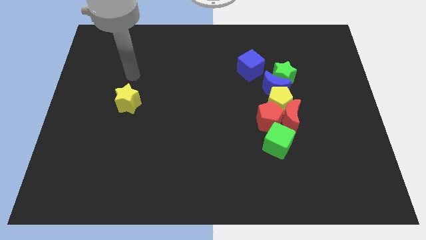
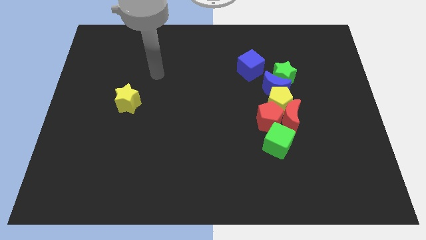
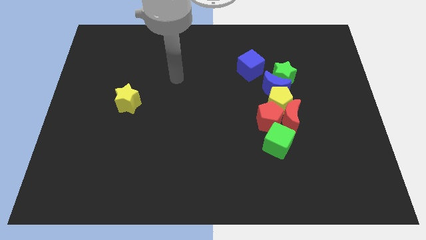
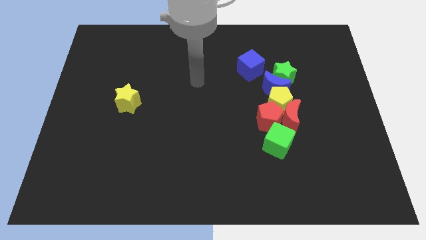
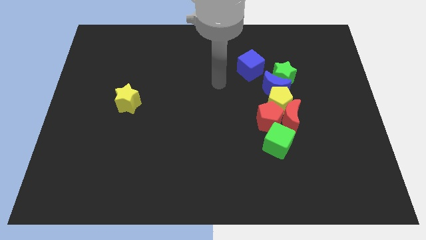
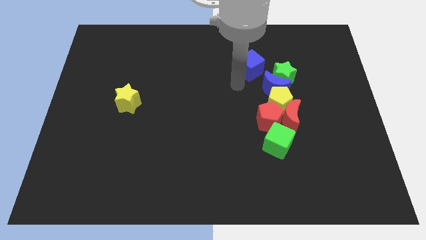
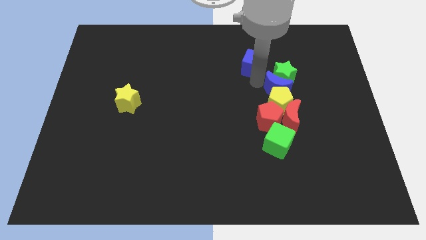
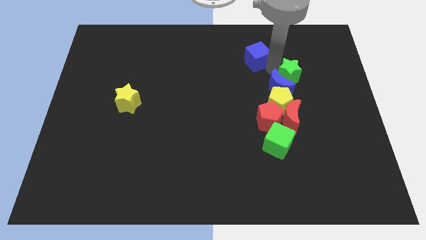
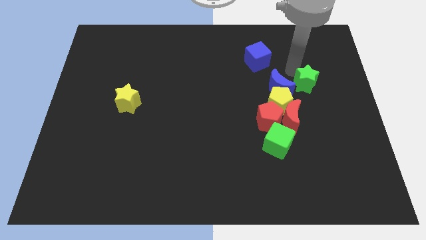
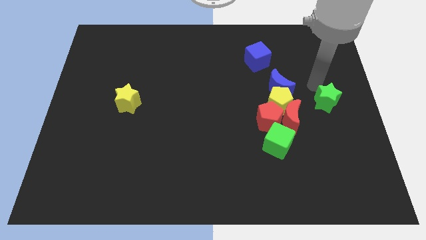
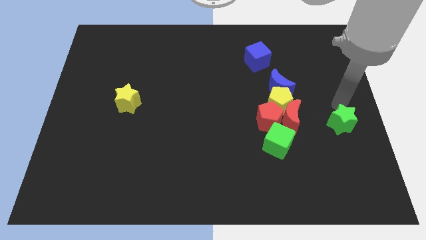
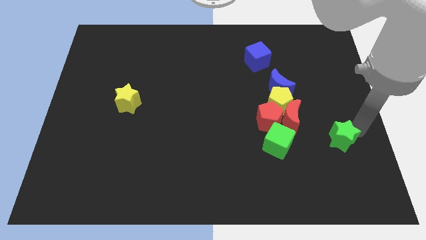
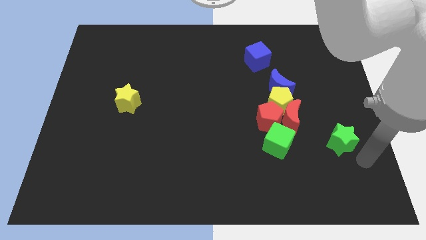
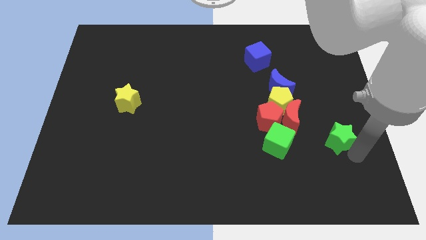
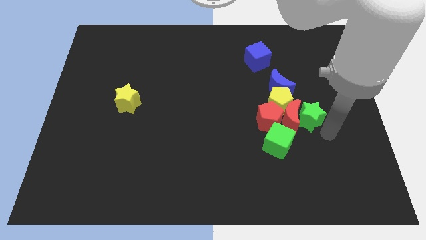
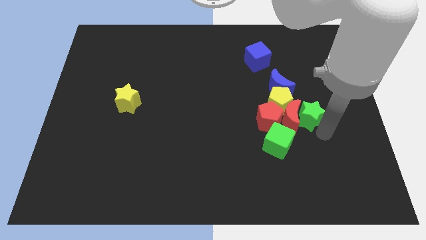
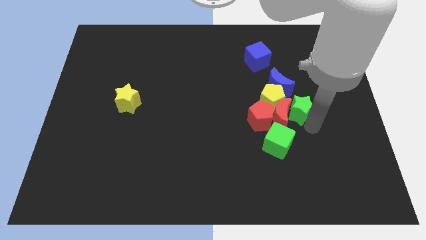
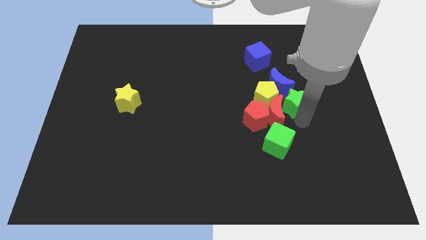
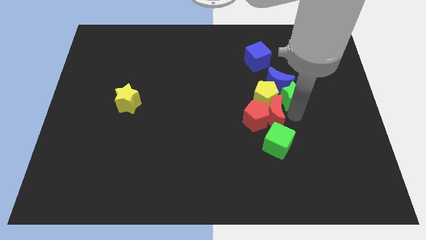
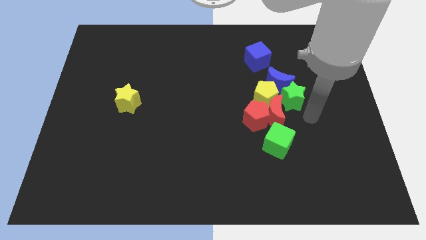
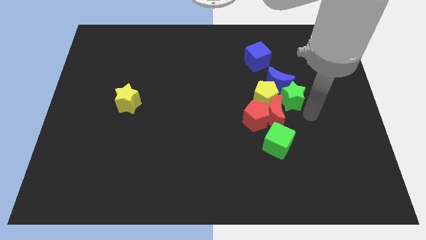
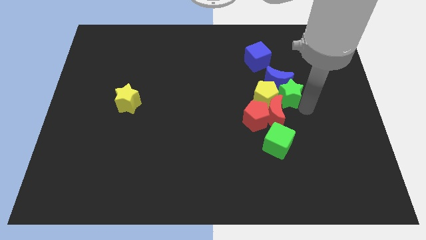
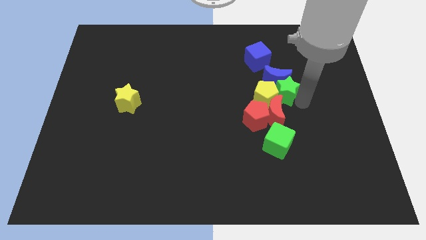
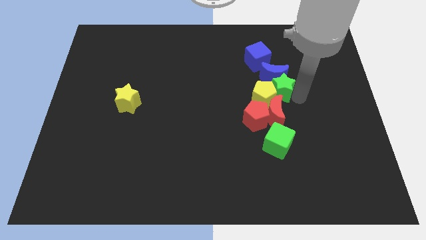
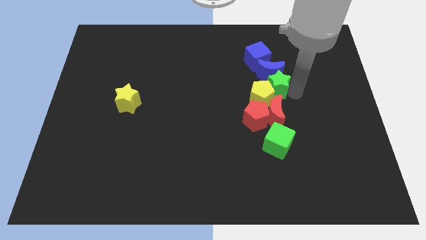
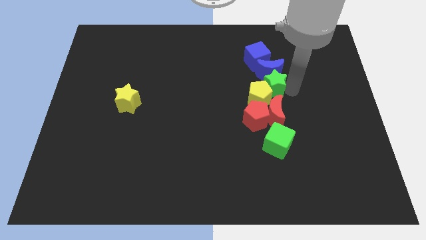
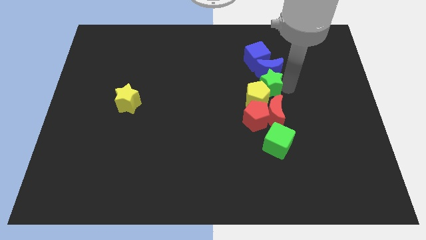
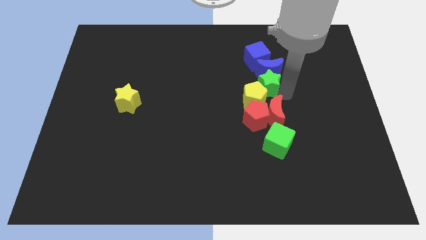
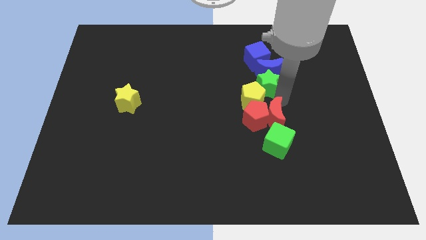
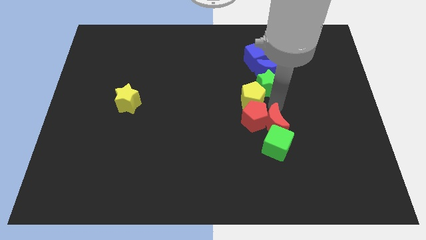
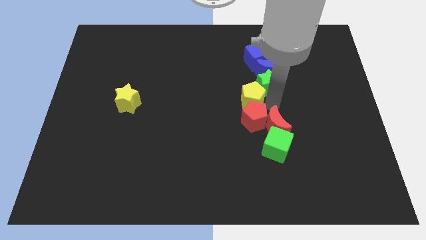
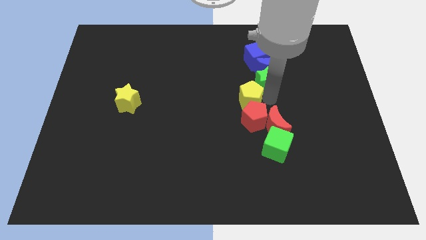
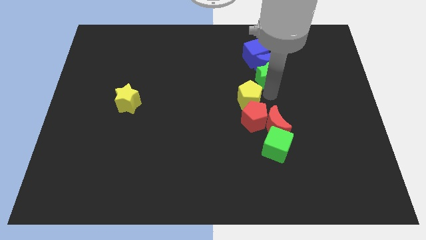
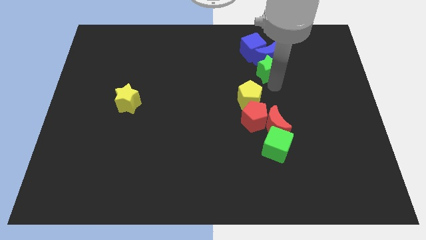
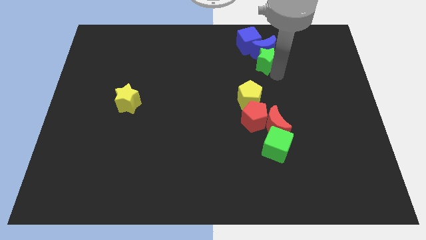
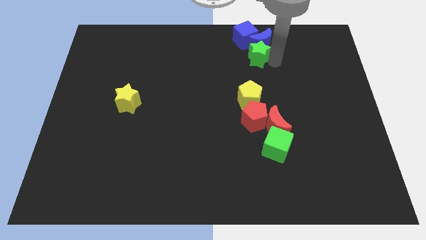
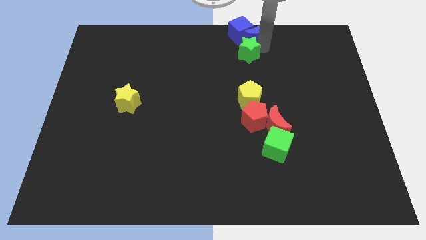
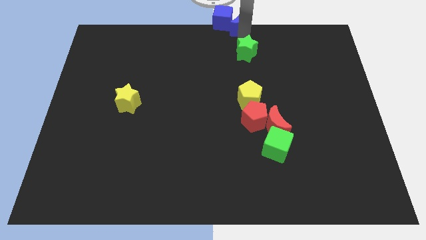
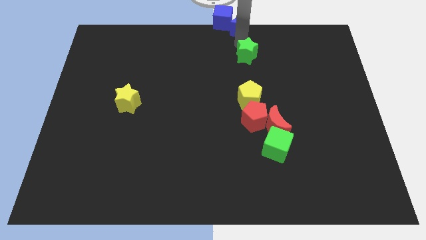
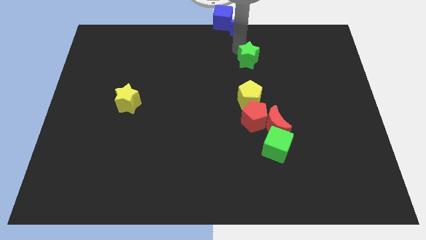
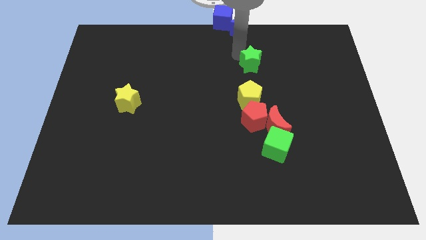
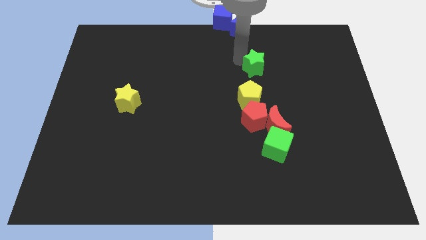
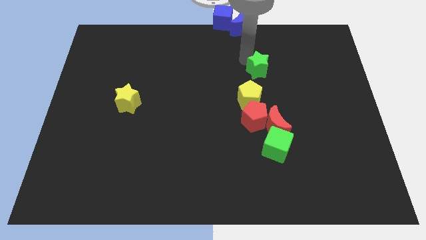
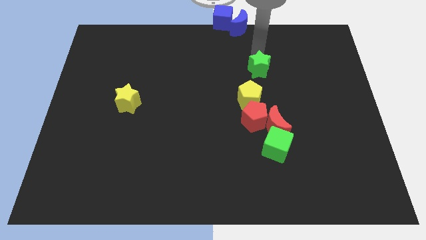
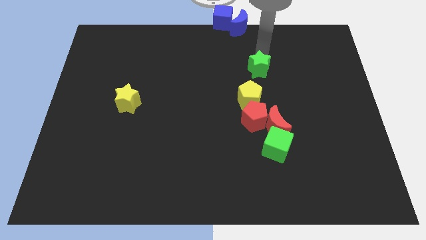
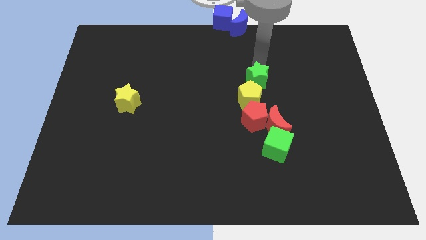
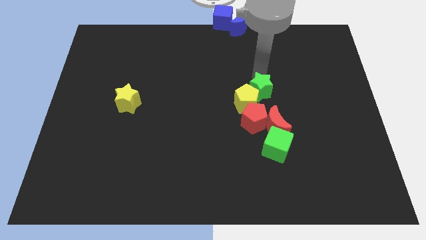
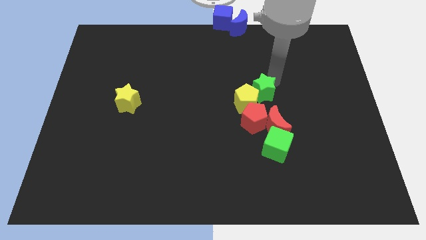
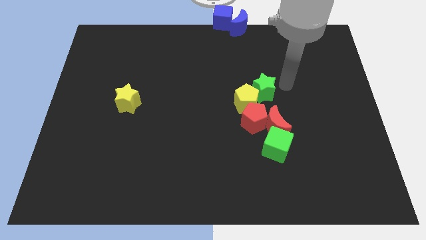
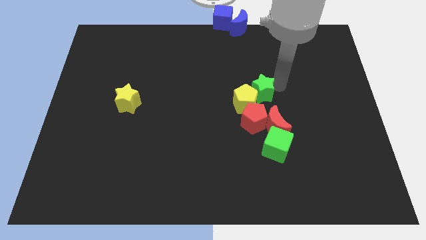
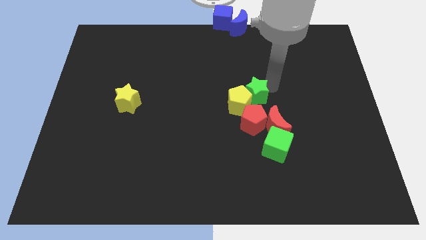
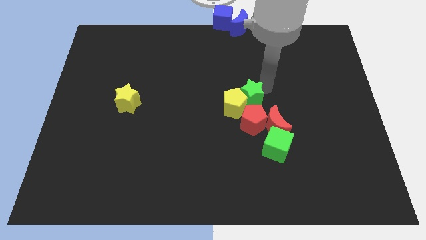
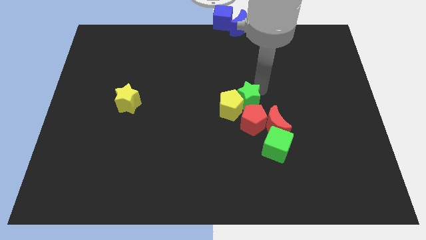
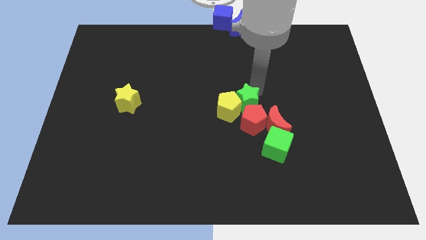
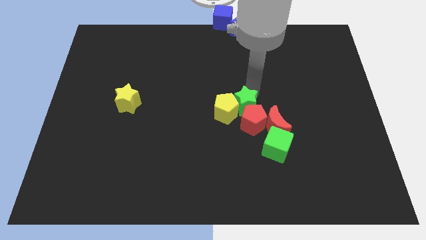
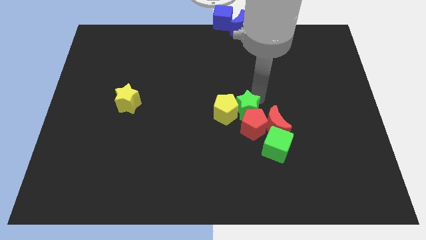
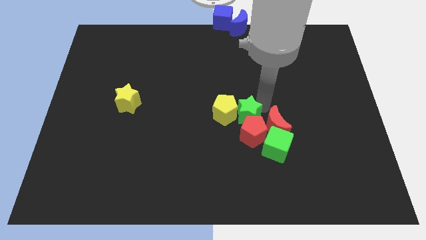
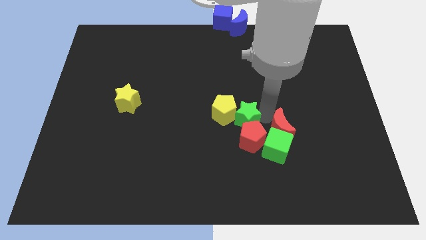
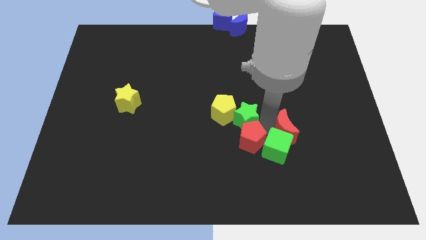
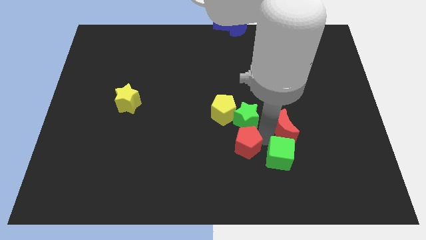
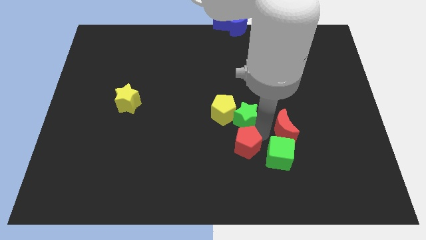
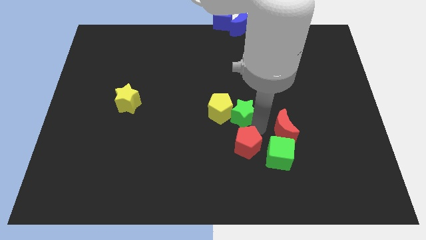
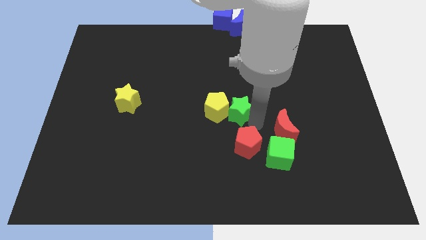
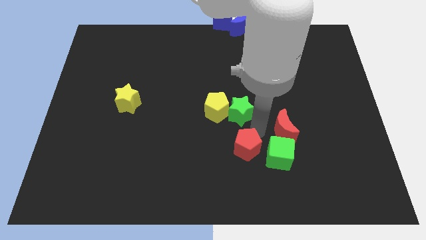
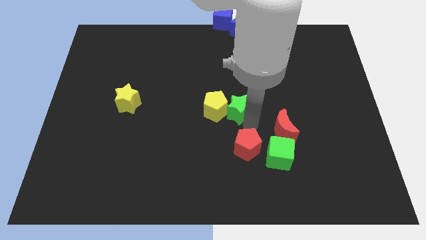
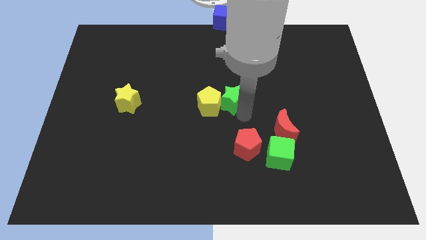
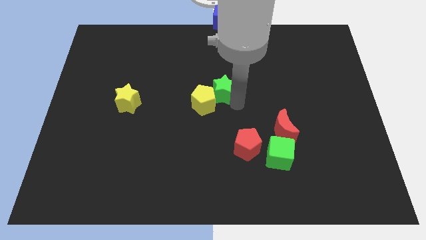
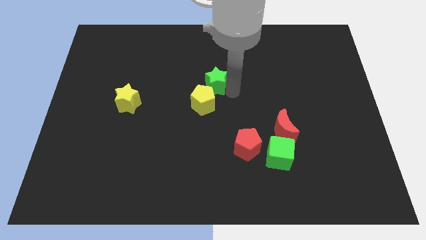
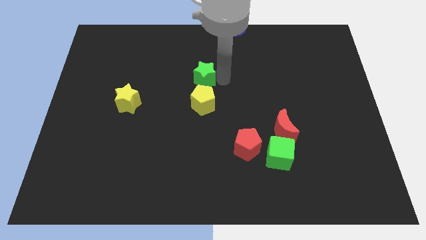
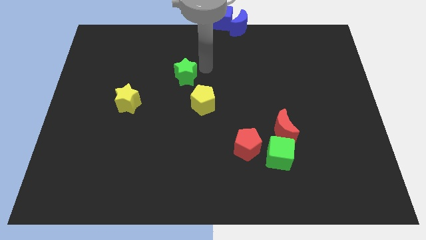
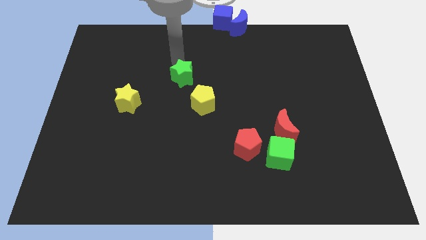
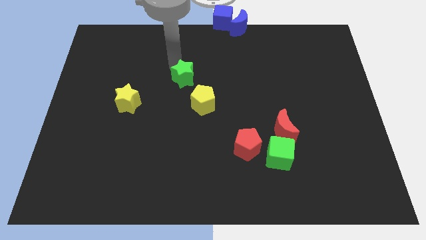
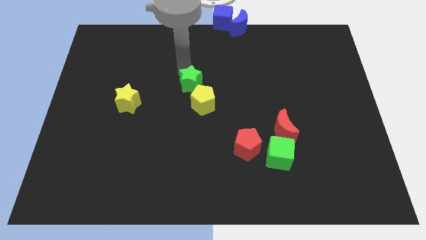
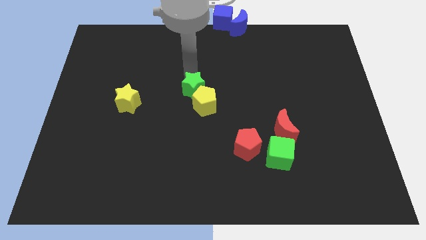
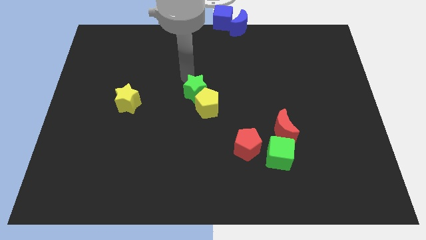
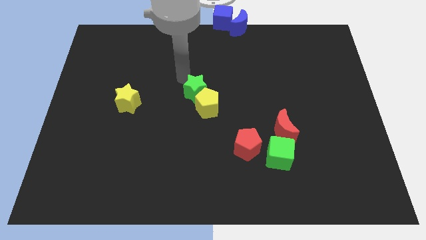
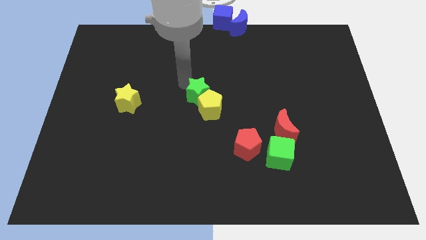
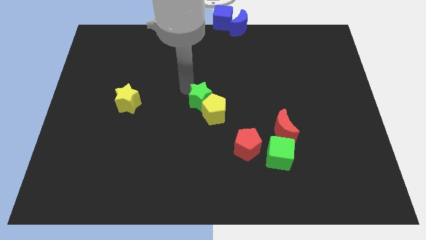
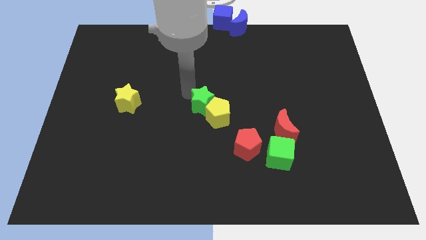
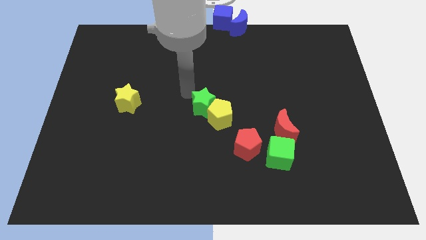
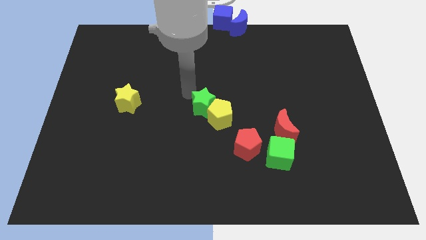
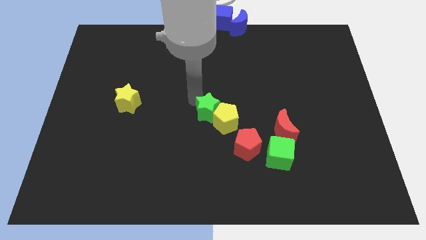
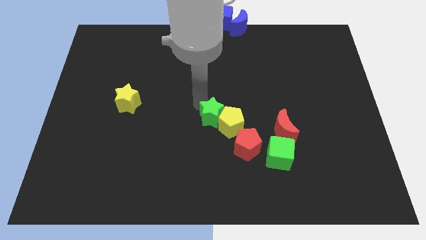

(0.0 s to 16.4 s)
move the green star down and then to the left
